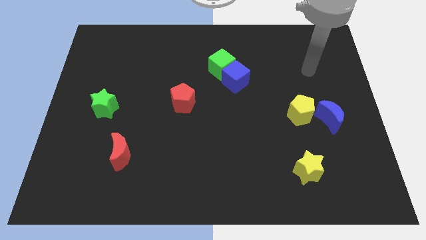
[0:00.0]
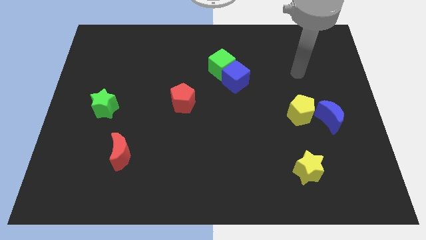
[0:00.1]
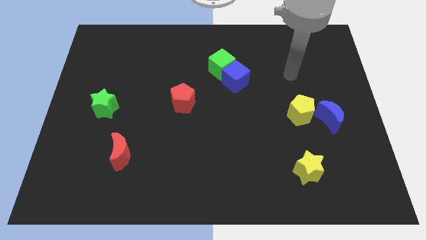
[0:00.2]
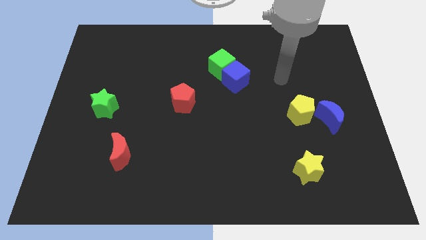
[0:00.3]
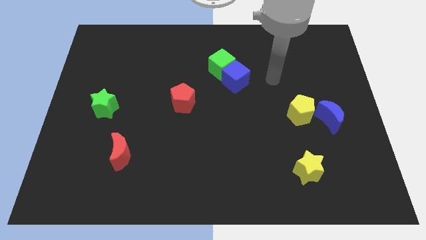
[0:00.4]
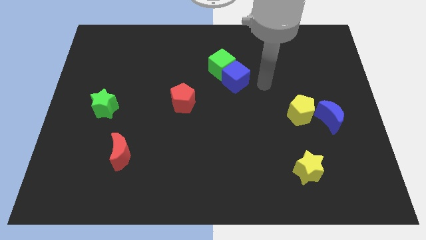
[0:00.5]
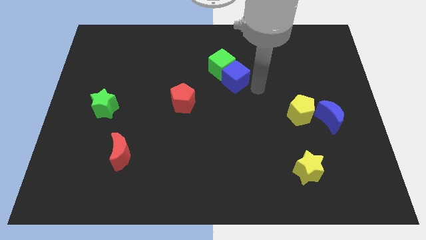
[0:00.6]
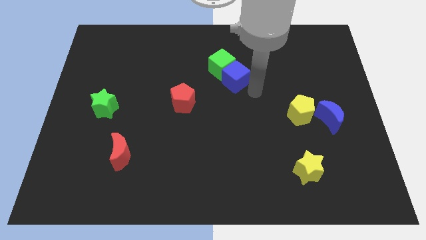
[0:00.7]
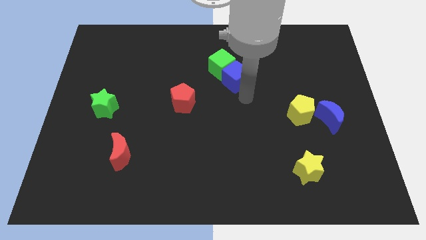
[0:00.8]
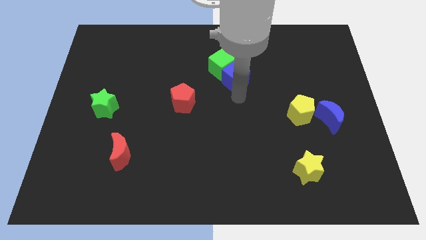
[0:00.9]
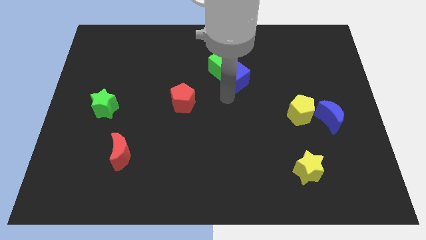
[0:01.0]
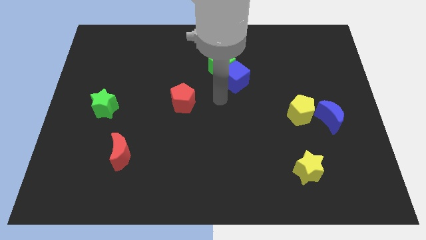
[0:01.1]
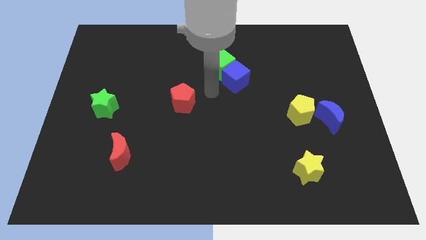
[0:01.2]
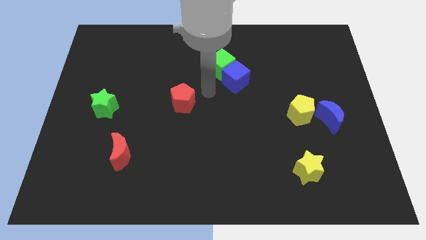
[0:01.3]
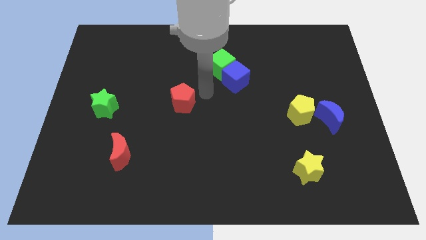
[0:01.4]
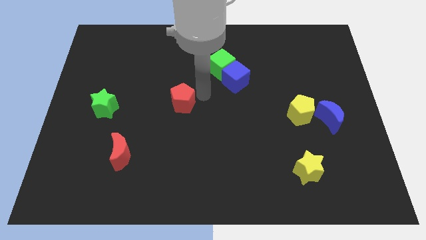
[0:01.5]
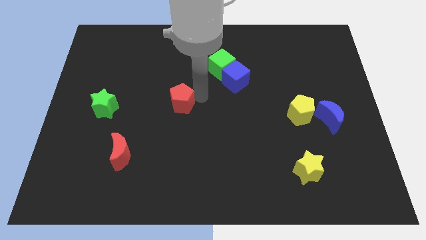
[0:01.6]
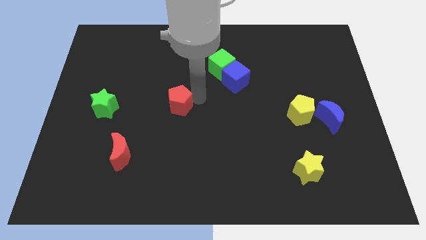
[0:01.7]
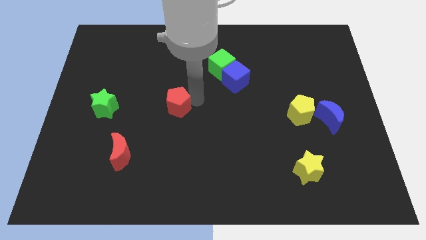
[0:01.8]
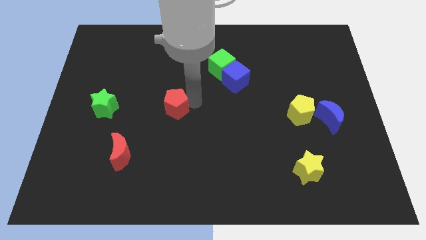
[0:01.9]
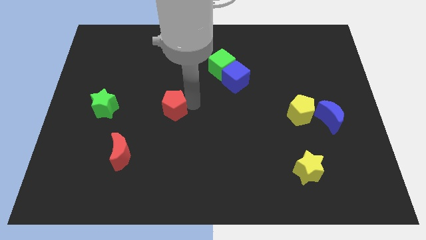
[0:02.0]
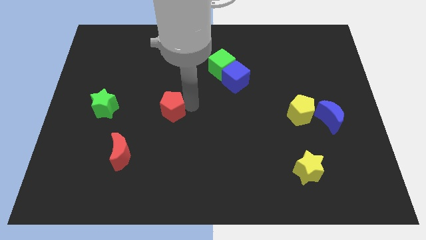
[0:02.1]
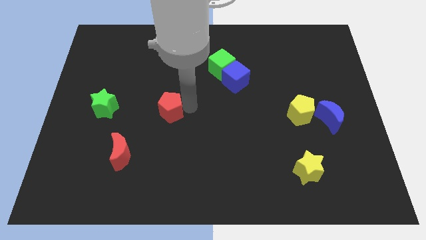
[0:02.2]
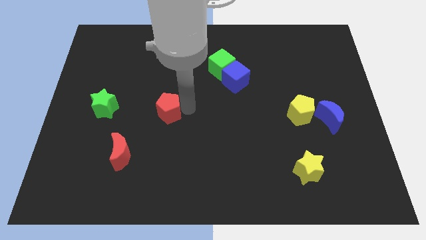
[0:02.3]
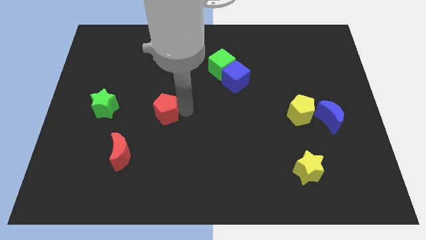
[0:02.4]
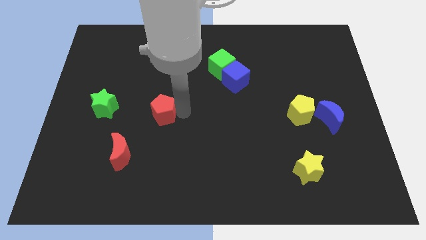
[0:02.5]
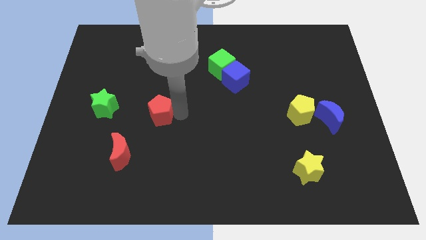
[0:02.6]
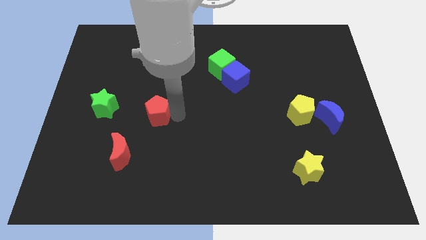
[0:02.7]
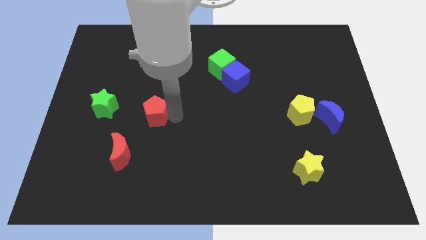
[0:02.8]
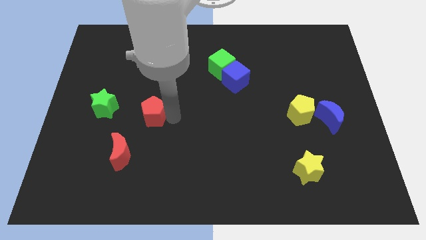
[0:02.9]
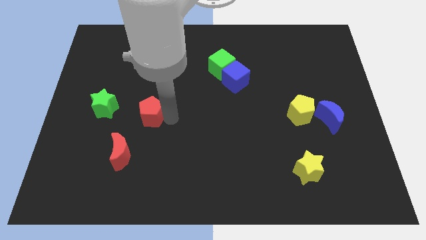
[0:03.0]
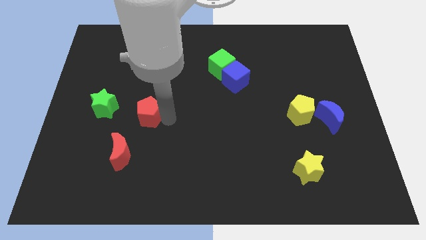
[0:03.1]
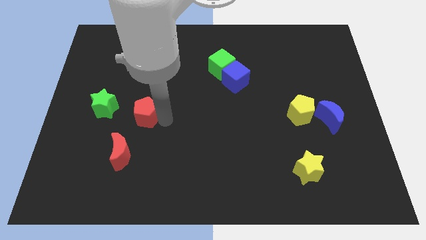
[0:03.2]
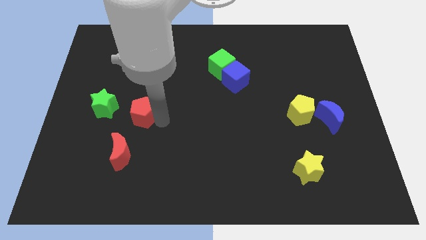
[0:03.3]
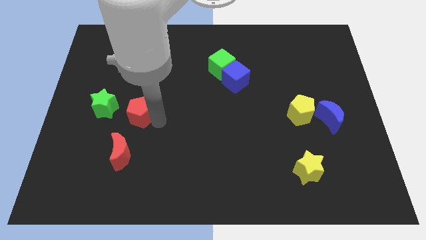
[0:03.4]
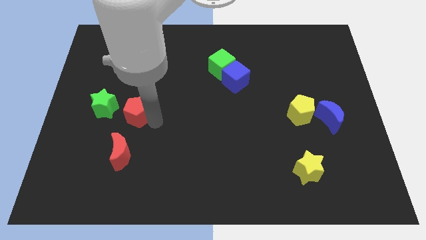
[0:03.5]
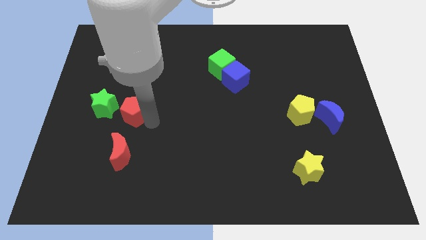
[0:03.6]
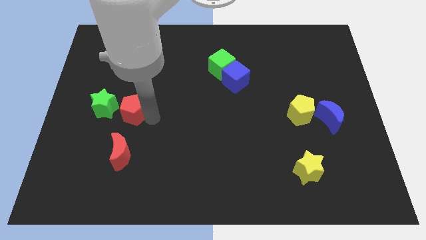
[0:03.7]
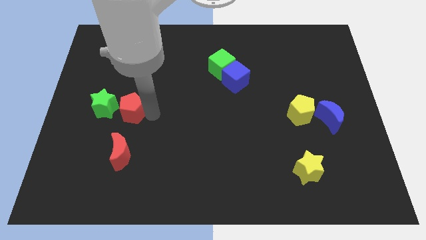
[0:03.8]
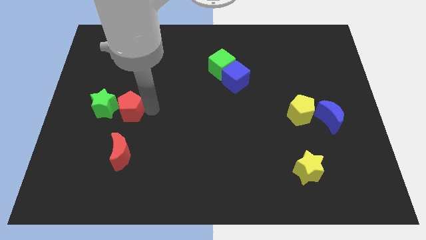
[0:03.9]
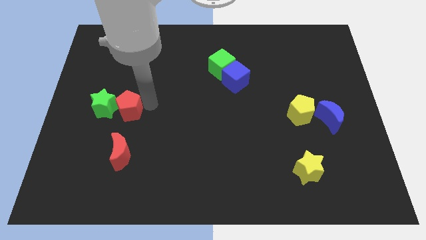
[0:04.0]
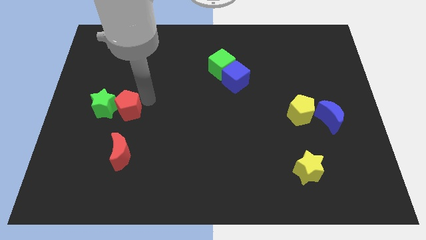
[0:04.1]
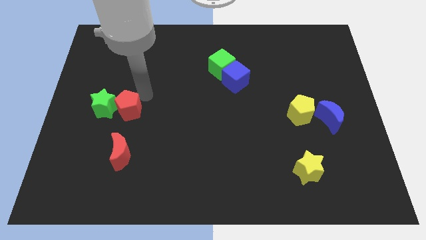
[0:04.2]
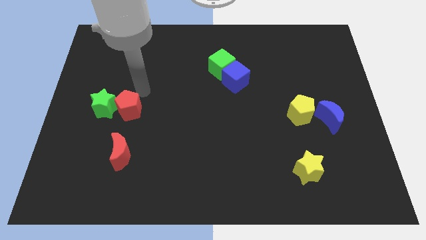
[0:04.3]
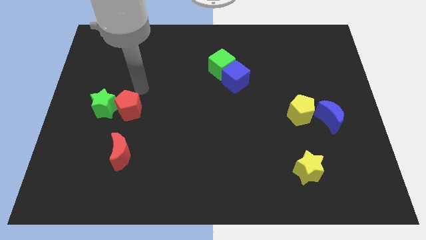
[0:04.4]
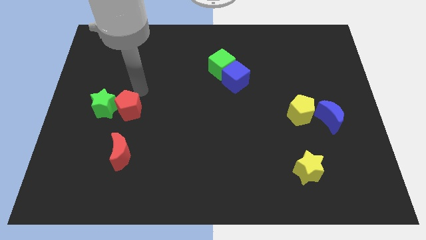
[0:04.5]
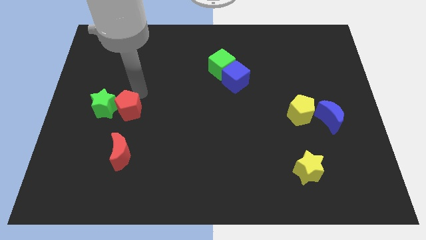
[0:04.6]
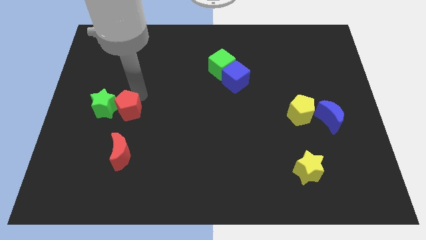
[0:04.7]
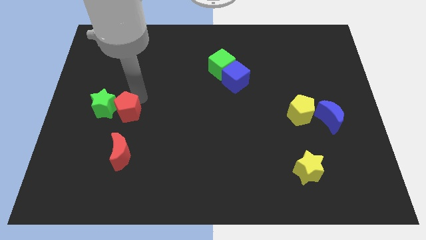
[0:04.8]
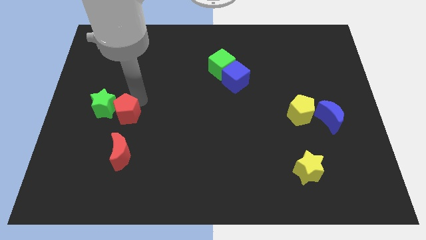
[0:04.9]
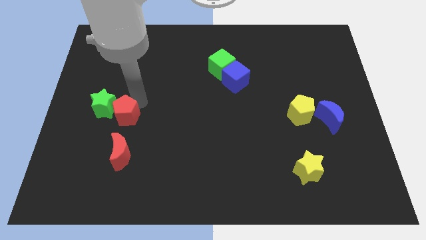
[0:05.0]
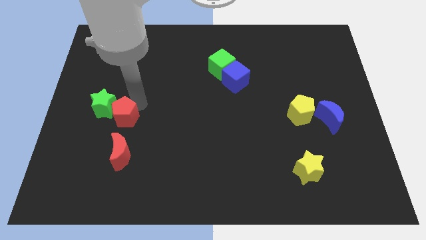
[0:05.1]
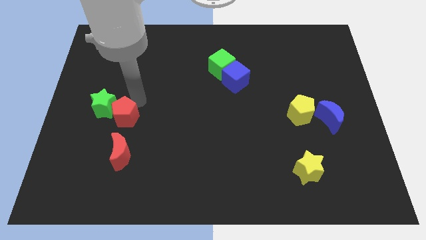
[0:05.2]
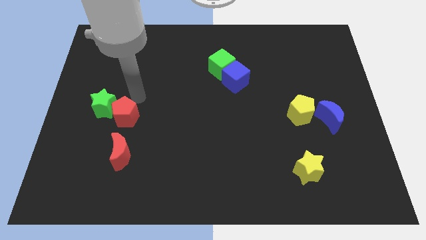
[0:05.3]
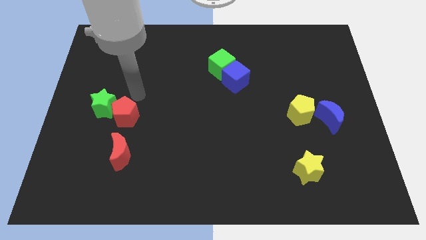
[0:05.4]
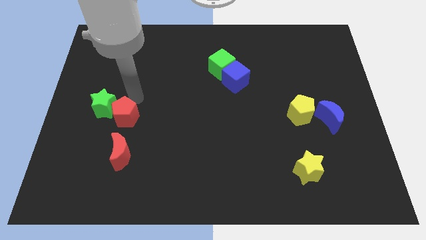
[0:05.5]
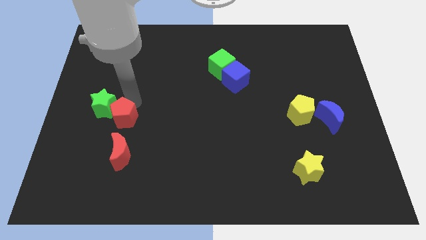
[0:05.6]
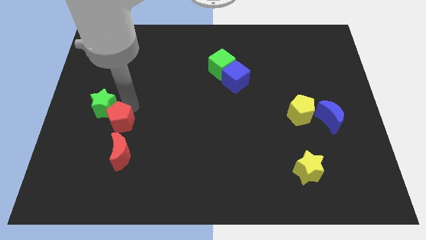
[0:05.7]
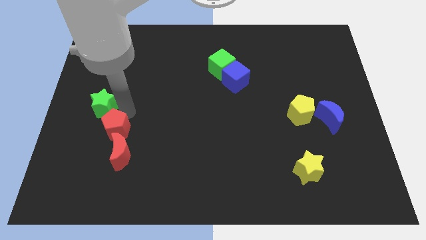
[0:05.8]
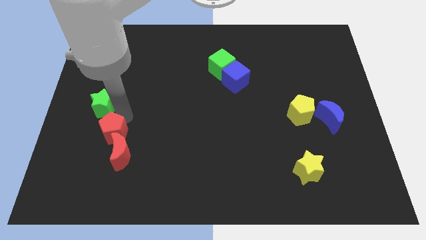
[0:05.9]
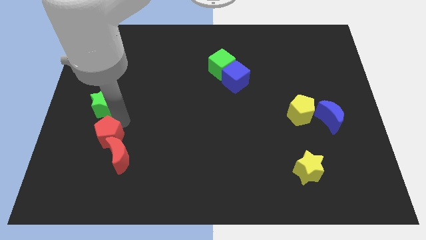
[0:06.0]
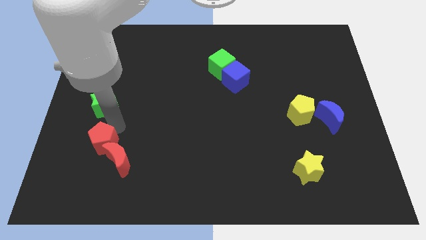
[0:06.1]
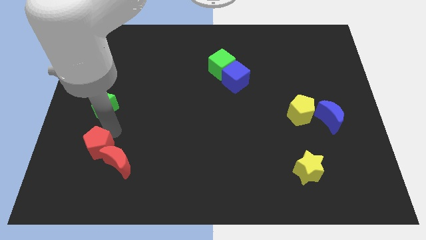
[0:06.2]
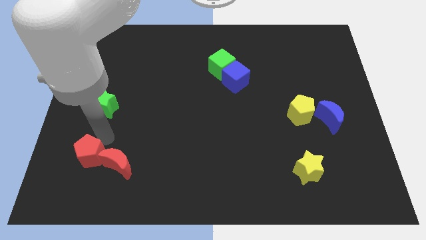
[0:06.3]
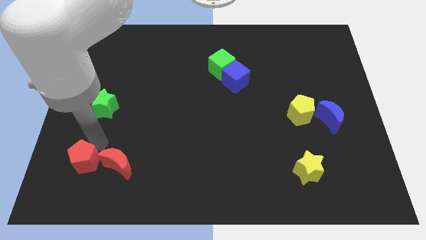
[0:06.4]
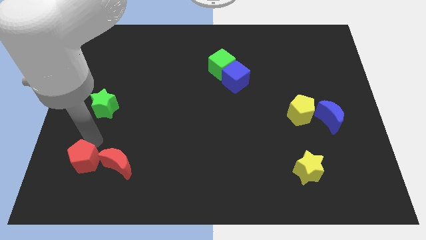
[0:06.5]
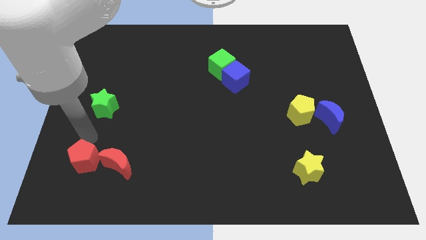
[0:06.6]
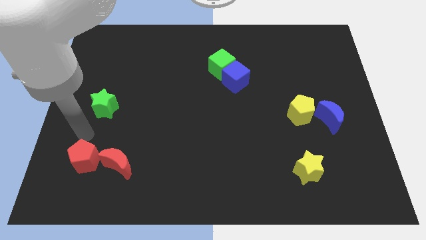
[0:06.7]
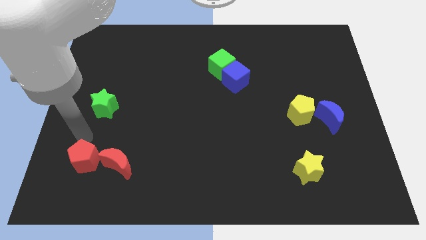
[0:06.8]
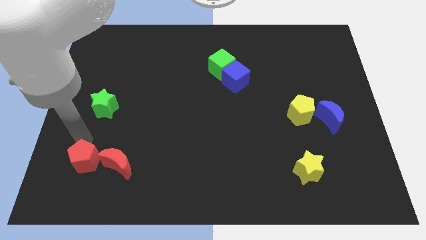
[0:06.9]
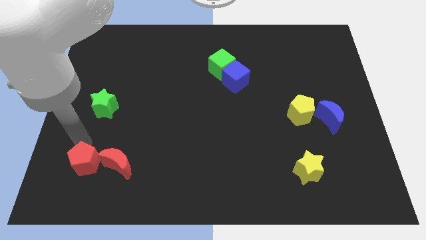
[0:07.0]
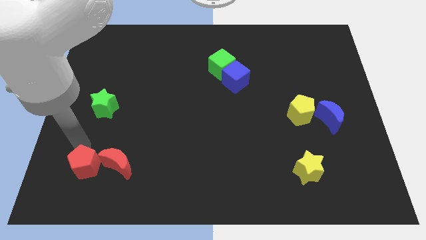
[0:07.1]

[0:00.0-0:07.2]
move the red pentagon to the bottom left side of the red moon
